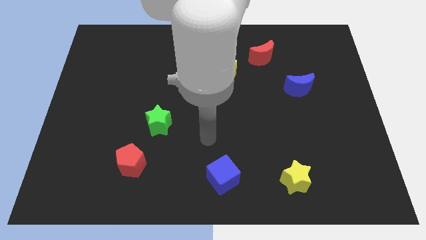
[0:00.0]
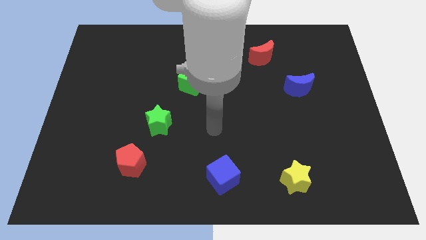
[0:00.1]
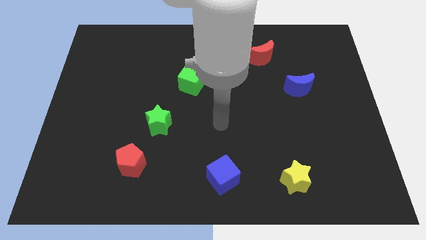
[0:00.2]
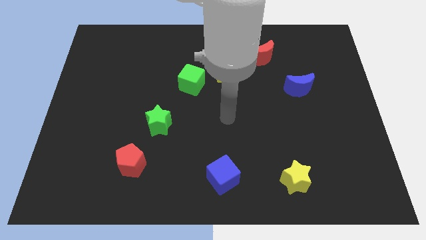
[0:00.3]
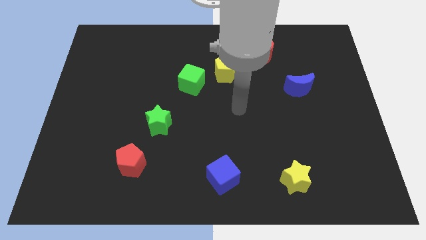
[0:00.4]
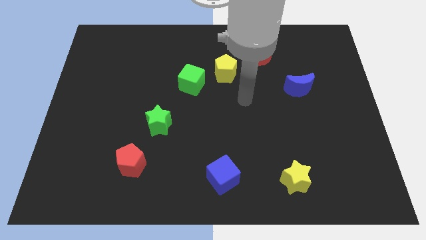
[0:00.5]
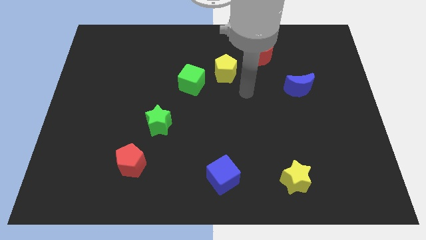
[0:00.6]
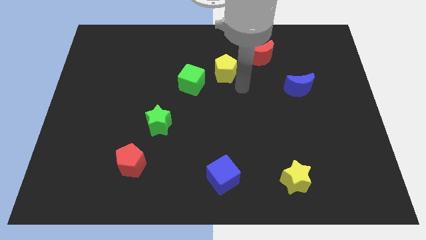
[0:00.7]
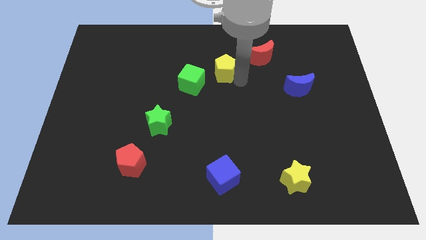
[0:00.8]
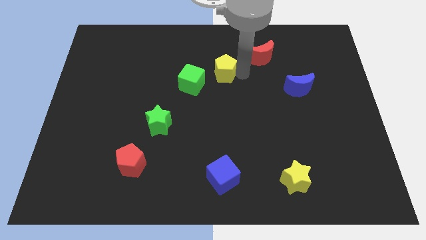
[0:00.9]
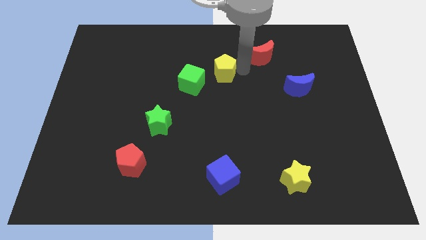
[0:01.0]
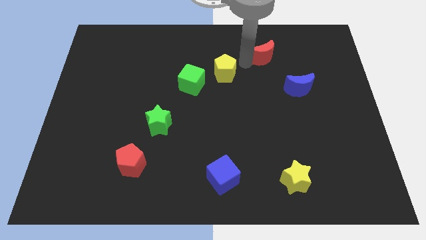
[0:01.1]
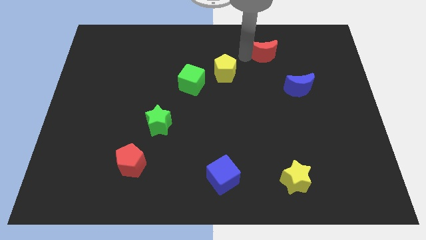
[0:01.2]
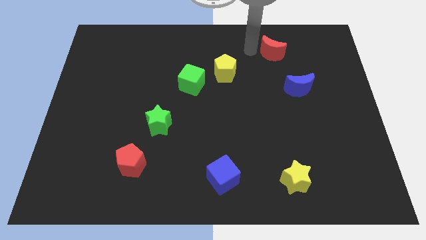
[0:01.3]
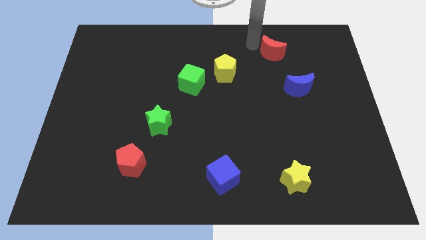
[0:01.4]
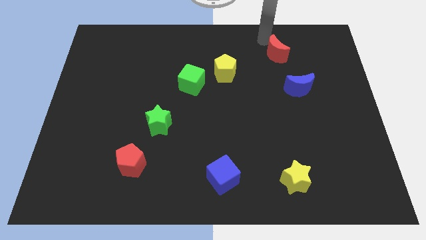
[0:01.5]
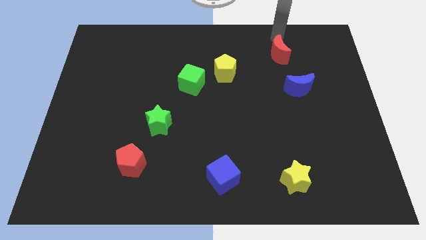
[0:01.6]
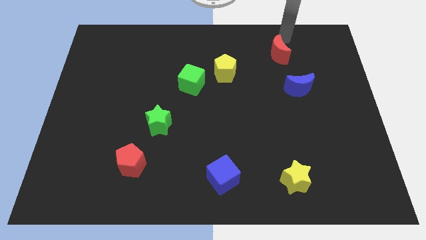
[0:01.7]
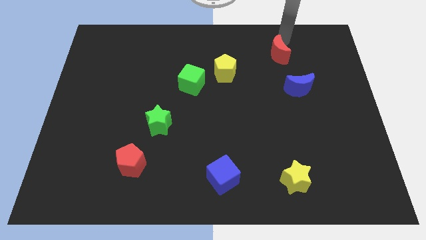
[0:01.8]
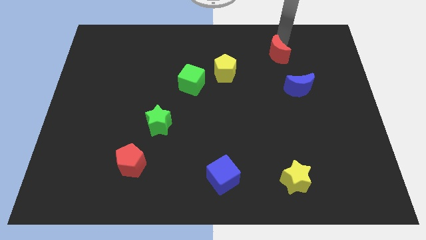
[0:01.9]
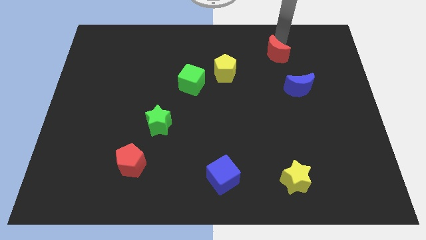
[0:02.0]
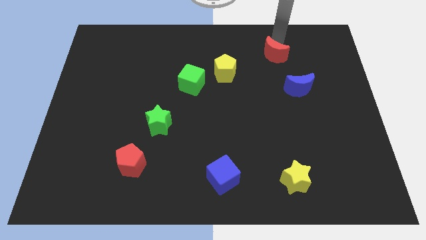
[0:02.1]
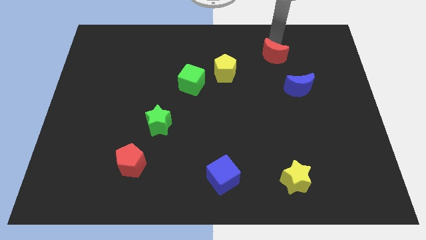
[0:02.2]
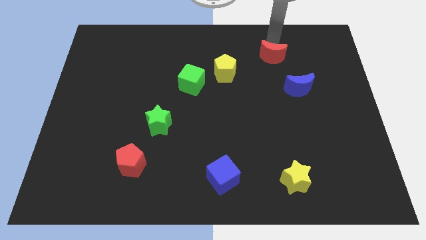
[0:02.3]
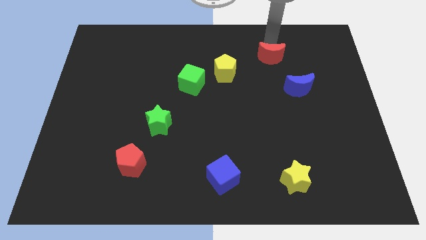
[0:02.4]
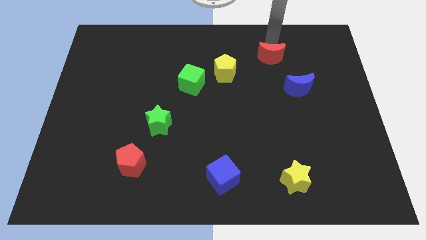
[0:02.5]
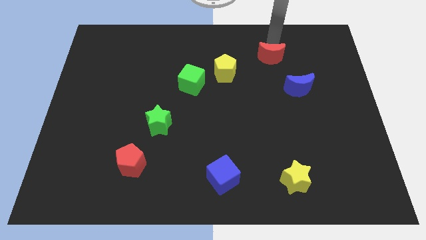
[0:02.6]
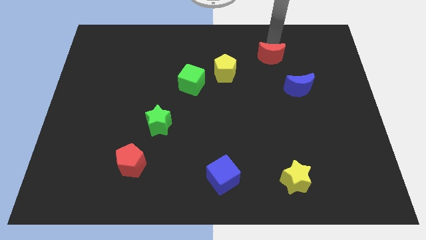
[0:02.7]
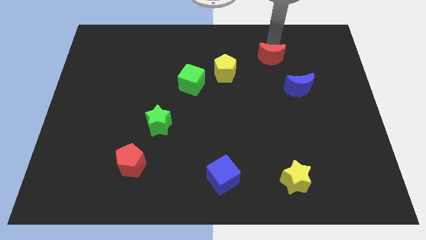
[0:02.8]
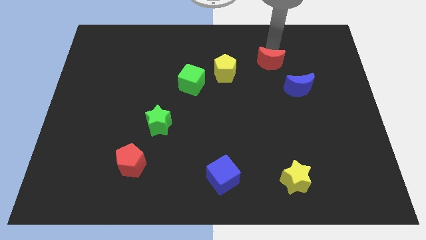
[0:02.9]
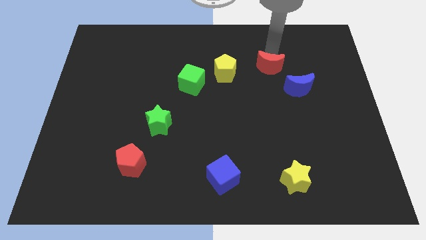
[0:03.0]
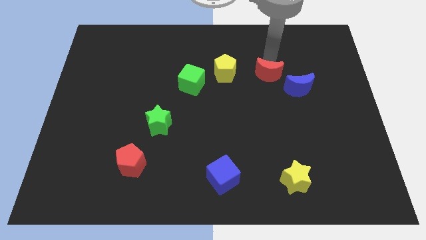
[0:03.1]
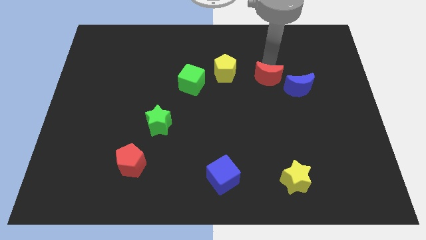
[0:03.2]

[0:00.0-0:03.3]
move the red moon a bit downwards

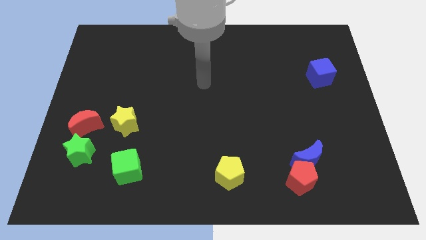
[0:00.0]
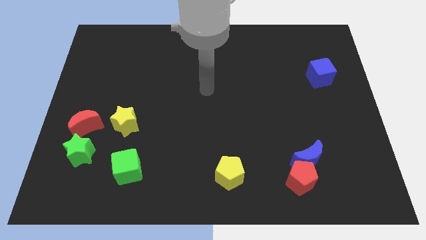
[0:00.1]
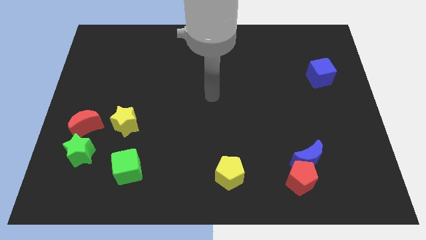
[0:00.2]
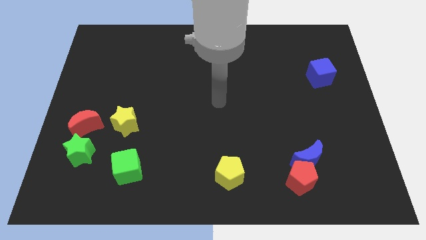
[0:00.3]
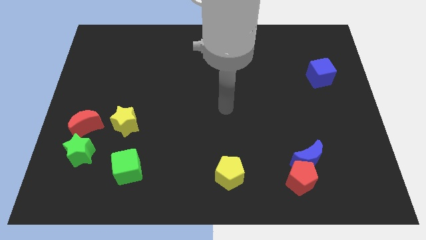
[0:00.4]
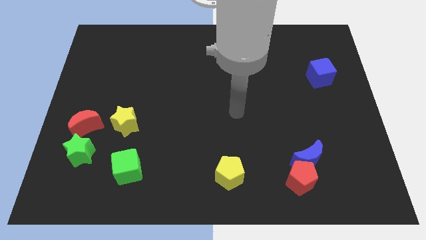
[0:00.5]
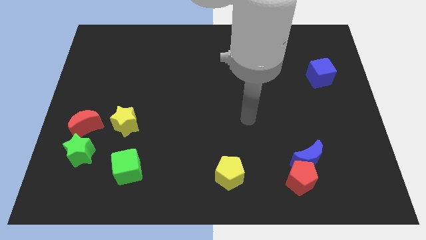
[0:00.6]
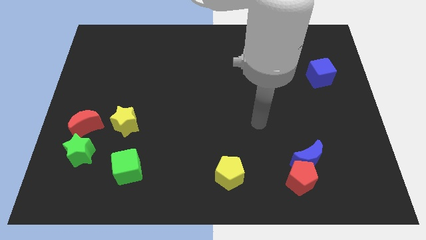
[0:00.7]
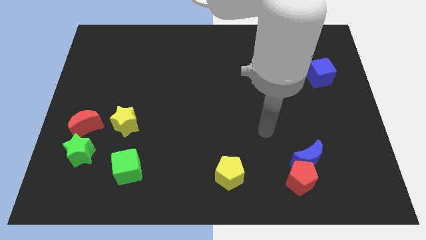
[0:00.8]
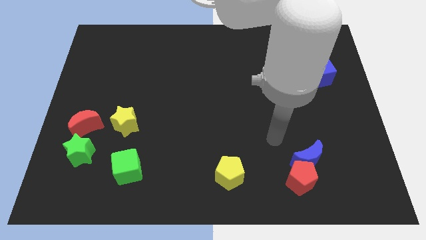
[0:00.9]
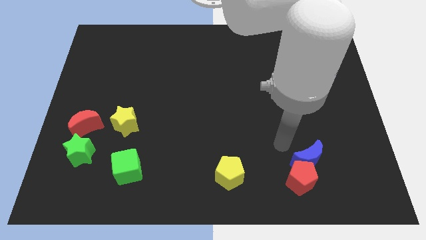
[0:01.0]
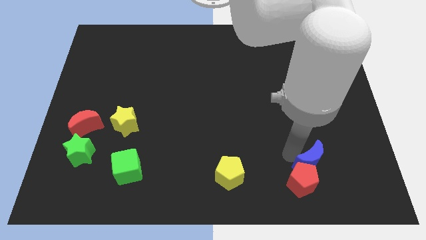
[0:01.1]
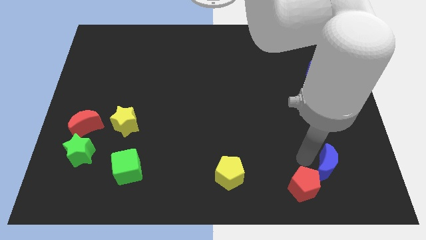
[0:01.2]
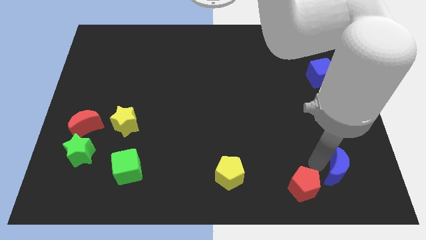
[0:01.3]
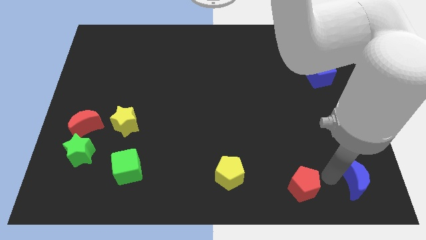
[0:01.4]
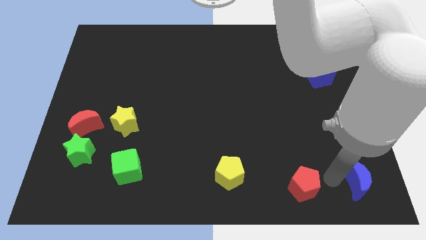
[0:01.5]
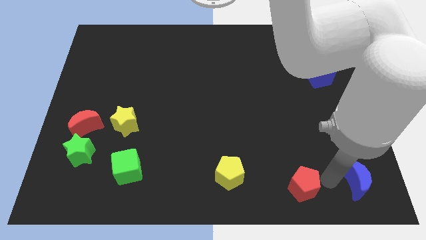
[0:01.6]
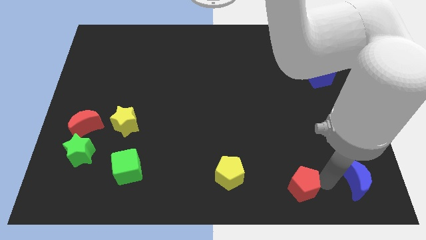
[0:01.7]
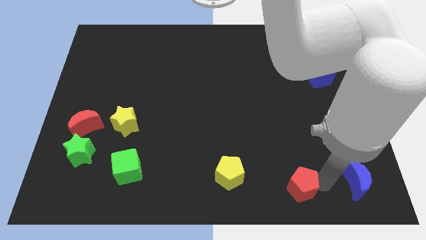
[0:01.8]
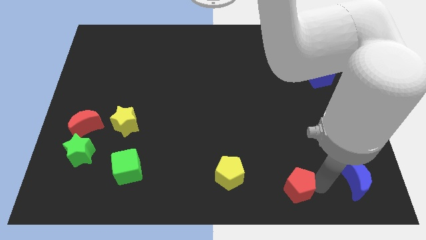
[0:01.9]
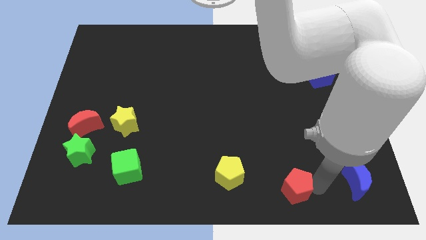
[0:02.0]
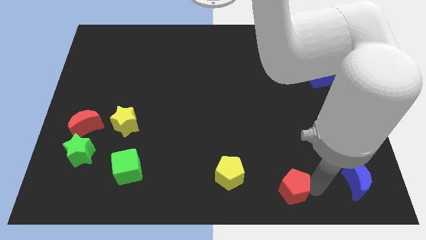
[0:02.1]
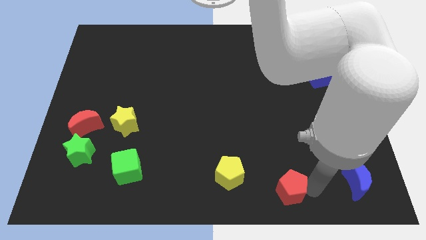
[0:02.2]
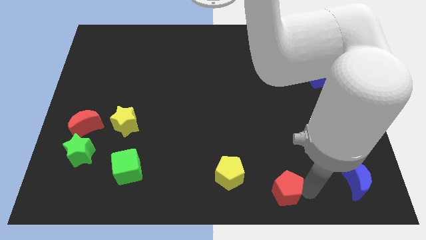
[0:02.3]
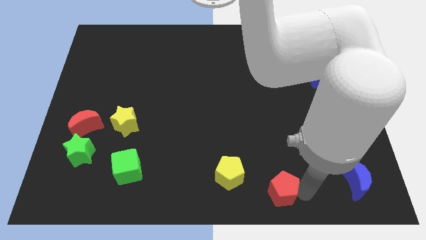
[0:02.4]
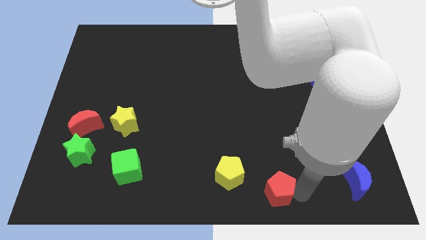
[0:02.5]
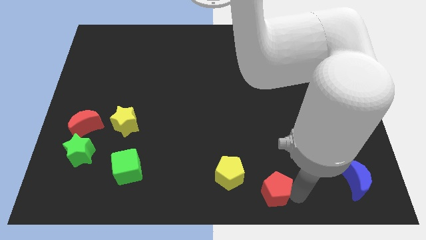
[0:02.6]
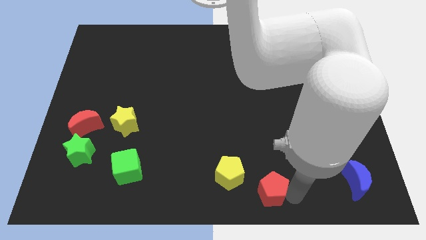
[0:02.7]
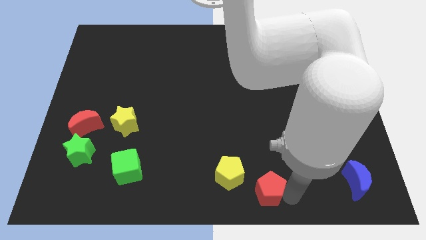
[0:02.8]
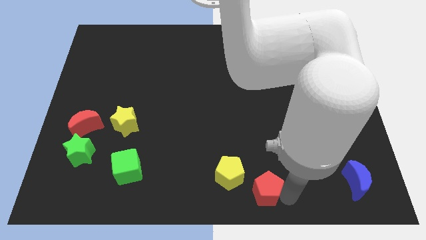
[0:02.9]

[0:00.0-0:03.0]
move the red pentagon slightly left

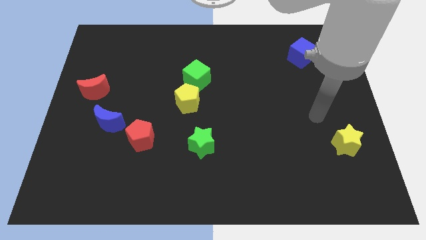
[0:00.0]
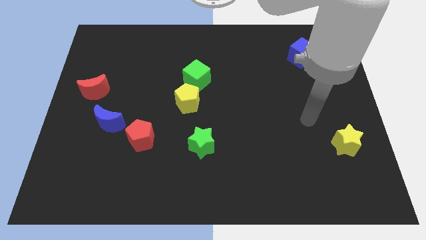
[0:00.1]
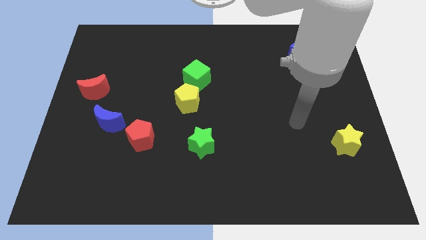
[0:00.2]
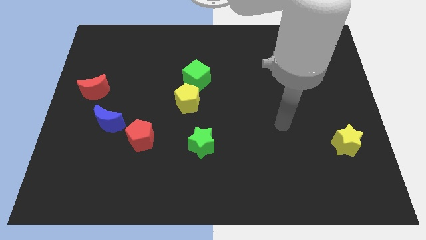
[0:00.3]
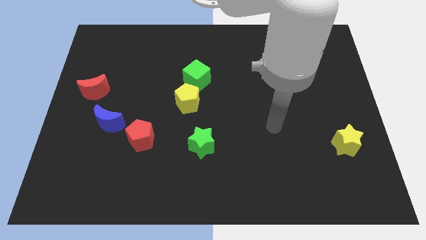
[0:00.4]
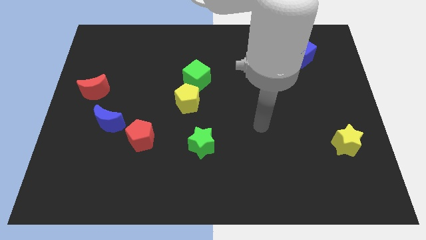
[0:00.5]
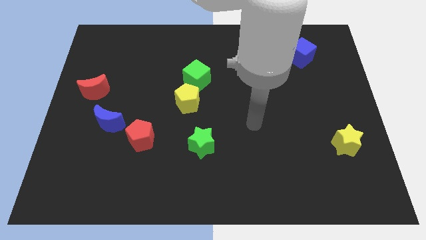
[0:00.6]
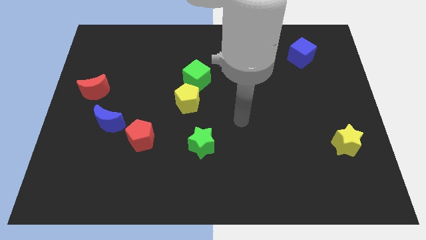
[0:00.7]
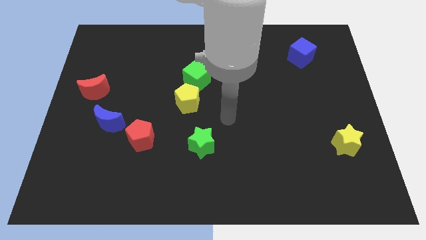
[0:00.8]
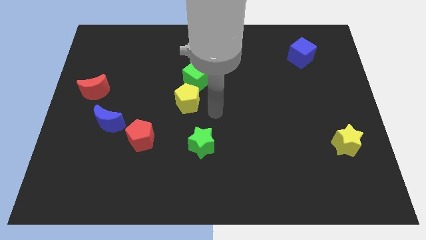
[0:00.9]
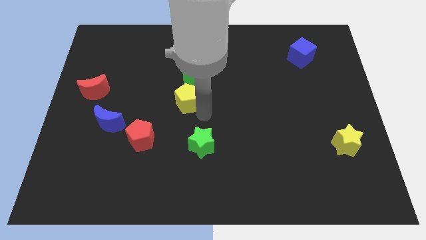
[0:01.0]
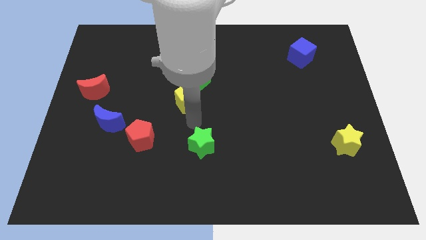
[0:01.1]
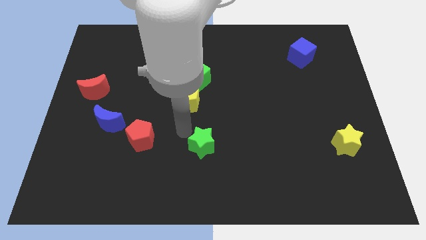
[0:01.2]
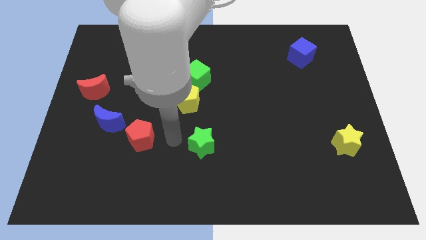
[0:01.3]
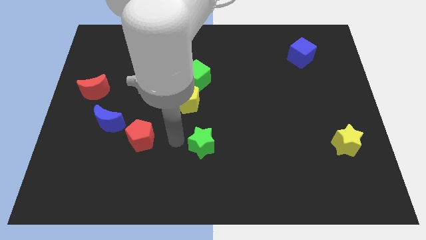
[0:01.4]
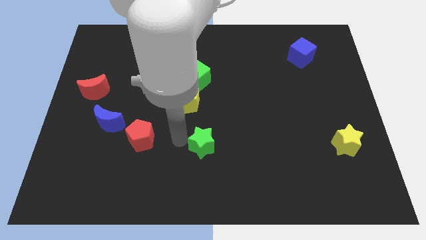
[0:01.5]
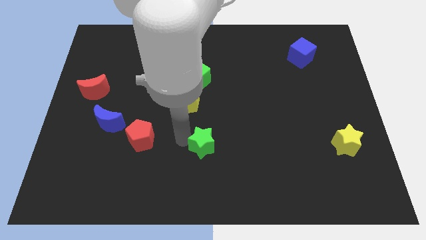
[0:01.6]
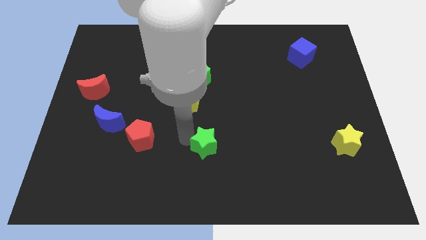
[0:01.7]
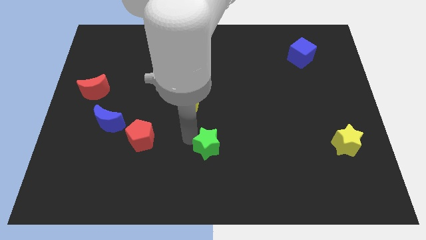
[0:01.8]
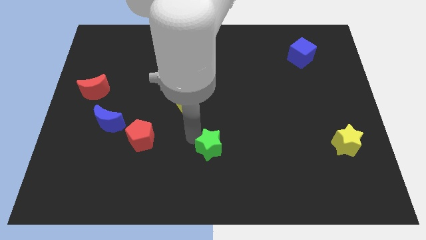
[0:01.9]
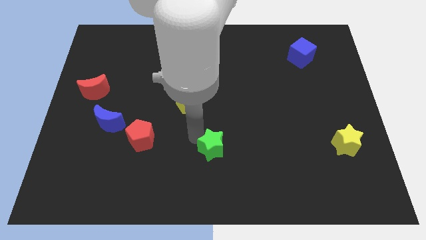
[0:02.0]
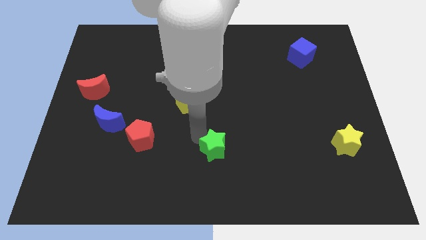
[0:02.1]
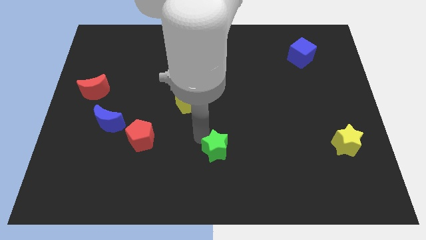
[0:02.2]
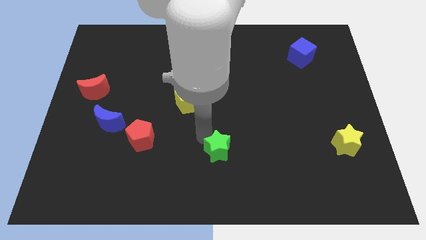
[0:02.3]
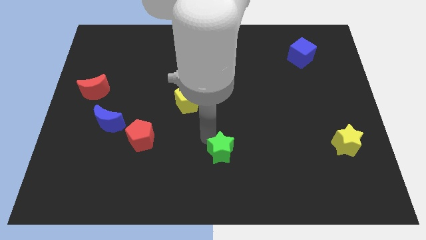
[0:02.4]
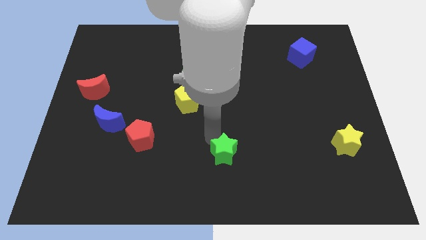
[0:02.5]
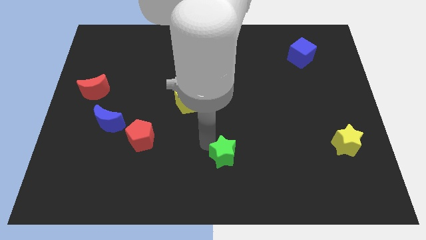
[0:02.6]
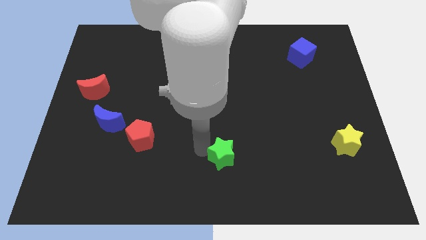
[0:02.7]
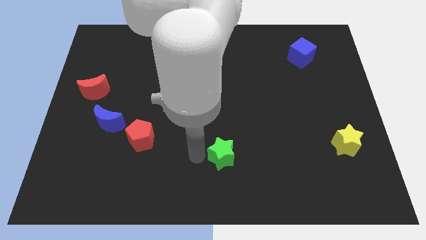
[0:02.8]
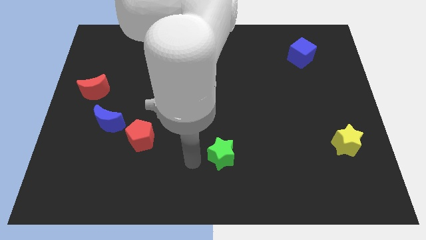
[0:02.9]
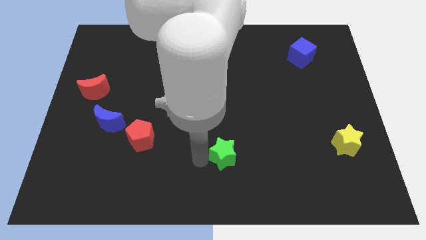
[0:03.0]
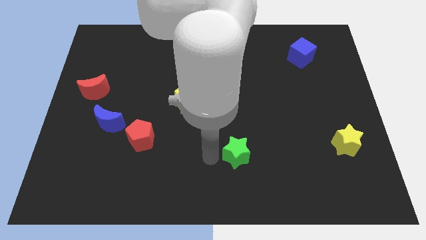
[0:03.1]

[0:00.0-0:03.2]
slide the green star to the right somewhat
